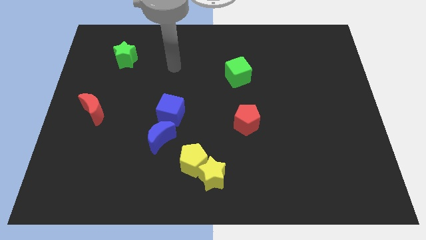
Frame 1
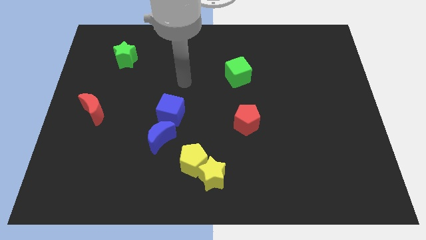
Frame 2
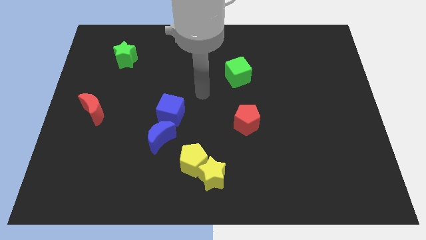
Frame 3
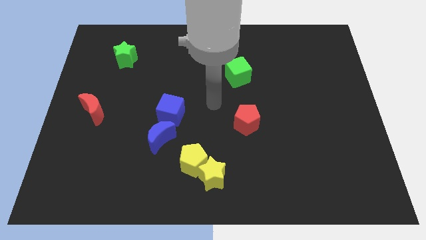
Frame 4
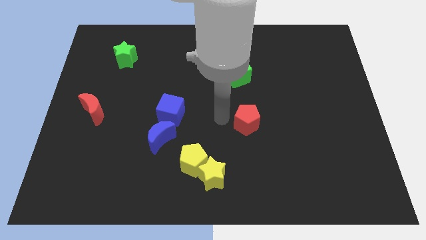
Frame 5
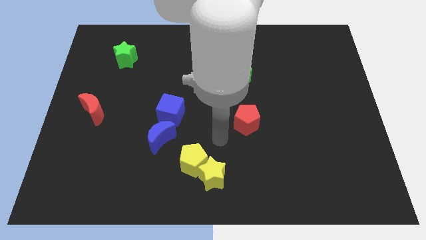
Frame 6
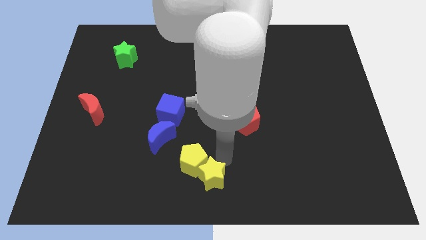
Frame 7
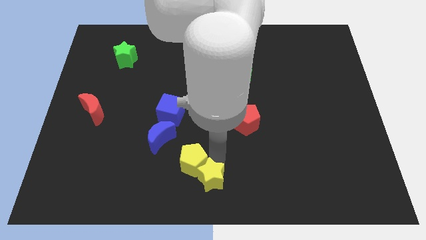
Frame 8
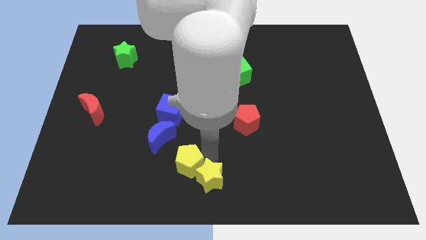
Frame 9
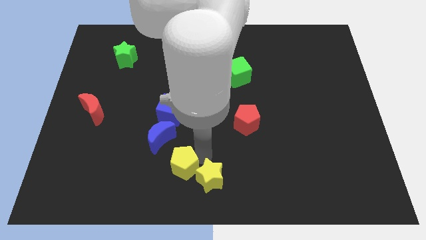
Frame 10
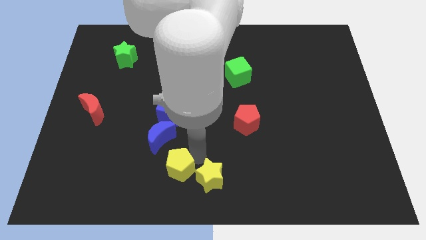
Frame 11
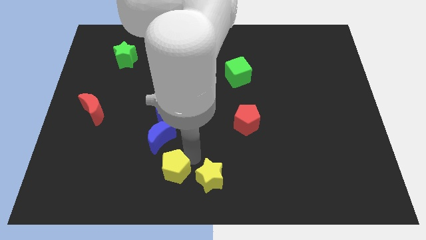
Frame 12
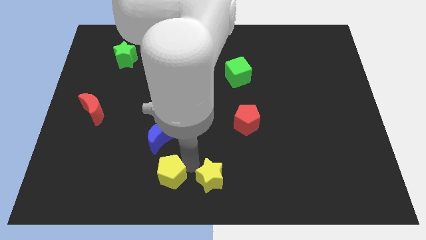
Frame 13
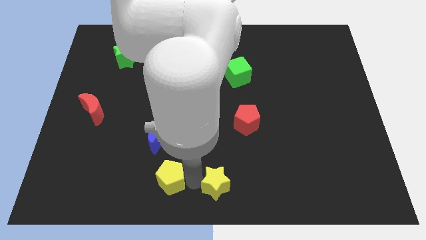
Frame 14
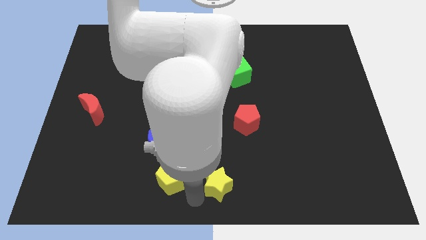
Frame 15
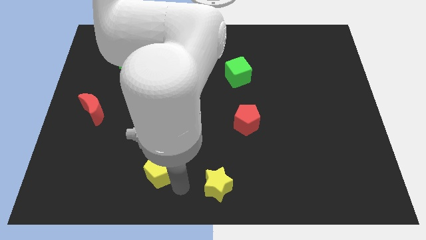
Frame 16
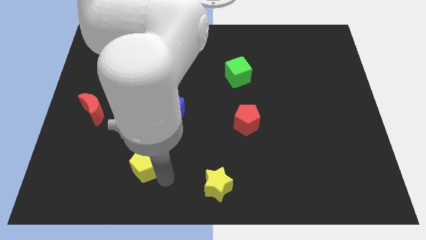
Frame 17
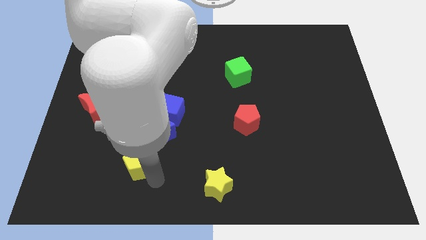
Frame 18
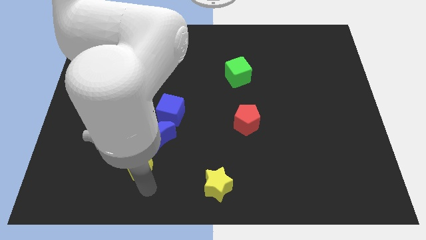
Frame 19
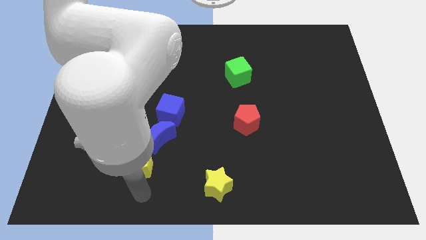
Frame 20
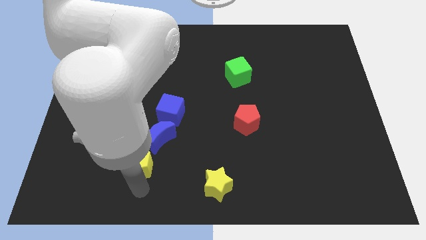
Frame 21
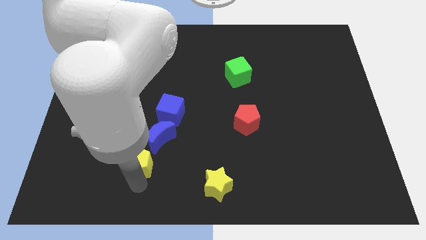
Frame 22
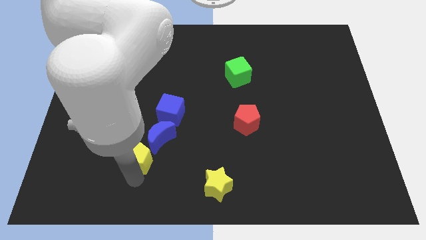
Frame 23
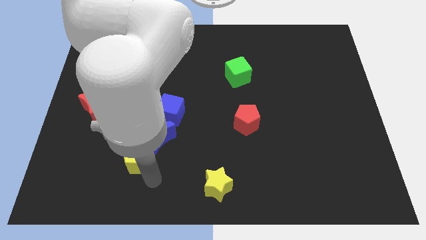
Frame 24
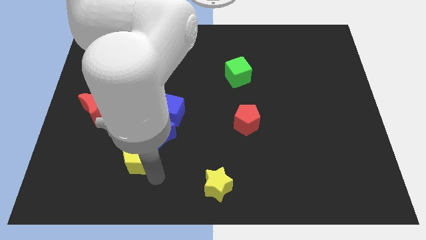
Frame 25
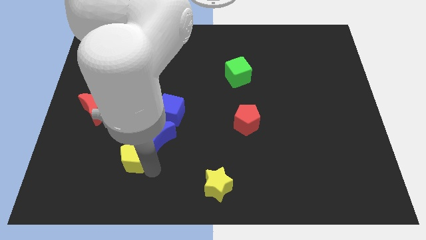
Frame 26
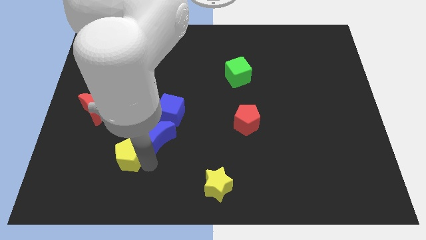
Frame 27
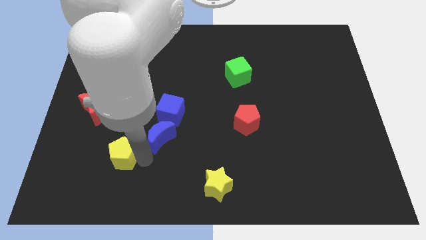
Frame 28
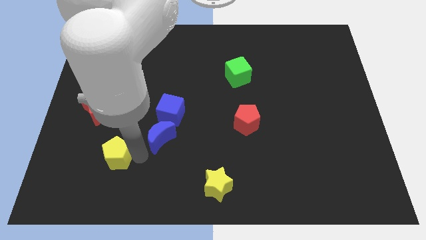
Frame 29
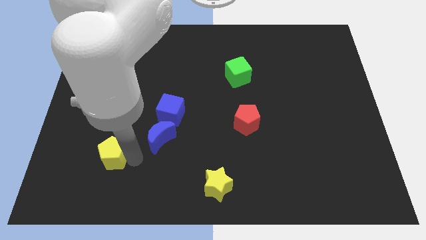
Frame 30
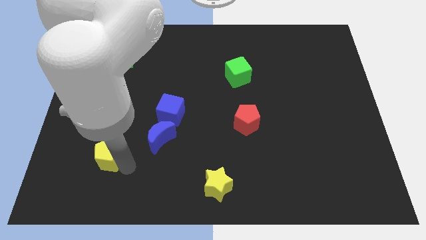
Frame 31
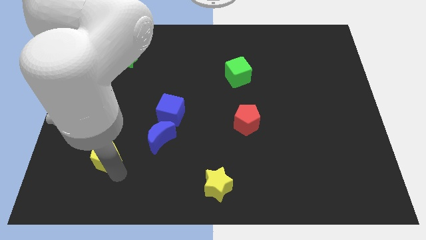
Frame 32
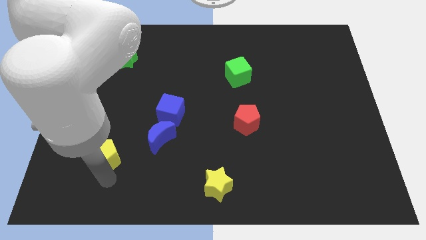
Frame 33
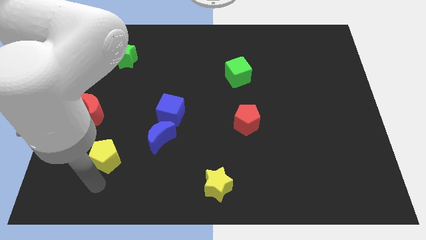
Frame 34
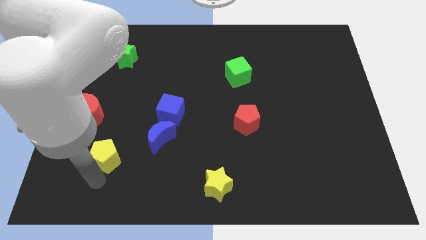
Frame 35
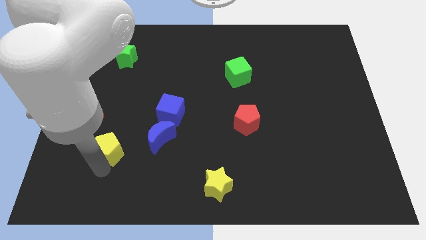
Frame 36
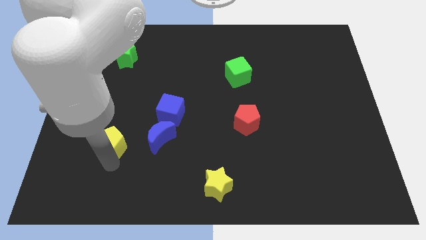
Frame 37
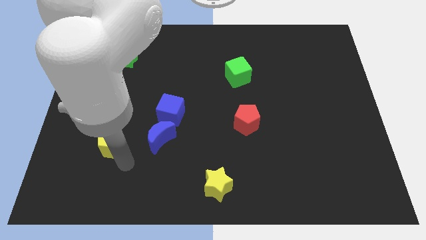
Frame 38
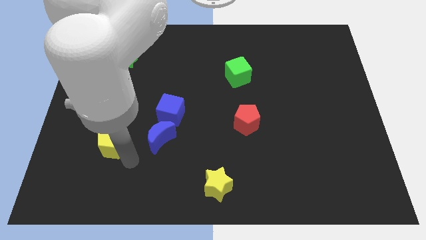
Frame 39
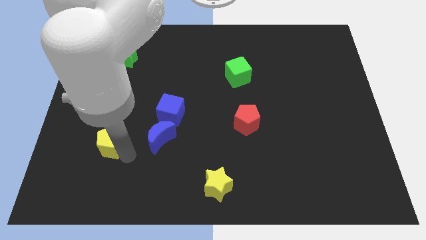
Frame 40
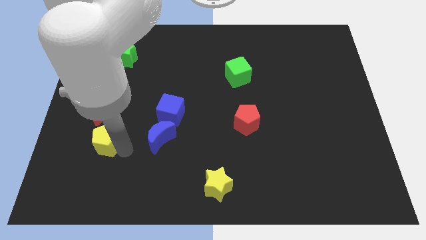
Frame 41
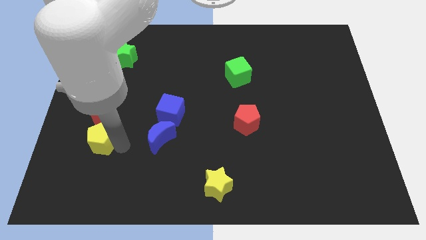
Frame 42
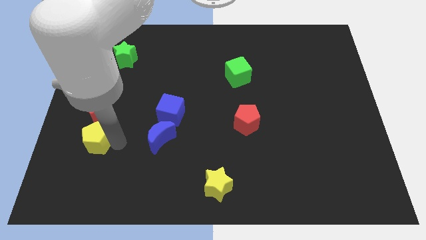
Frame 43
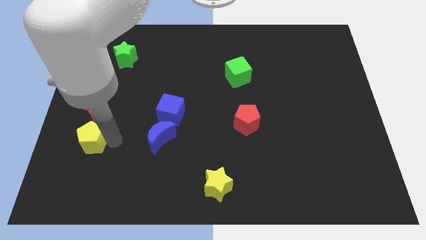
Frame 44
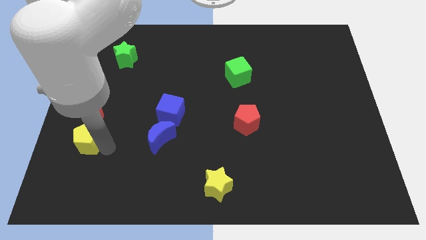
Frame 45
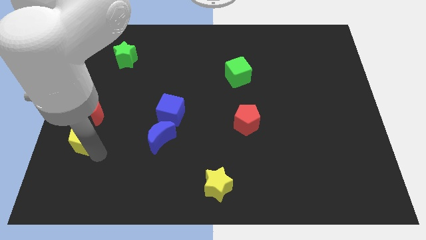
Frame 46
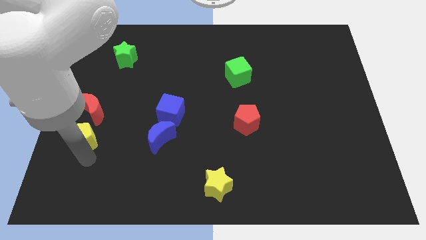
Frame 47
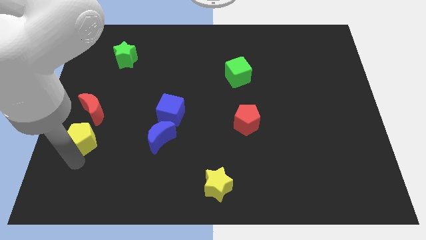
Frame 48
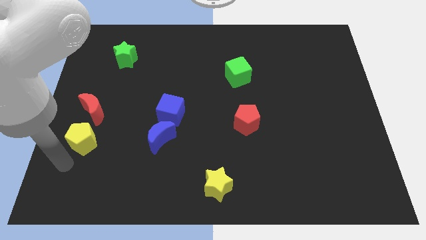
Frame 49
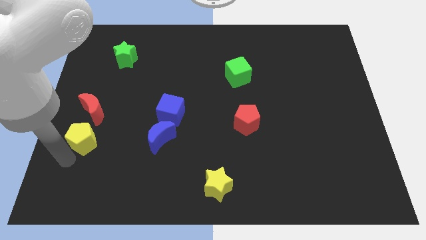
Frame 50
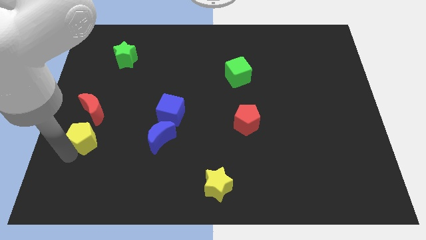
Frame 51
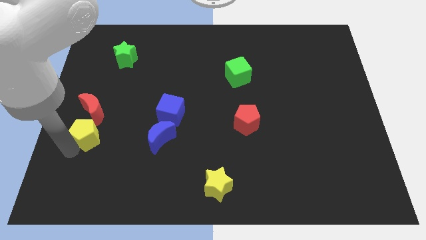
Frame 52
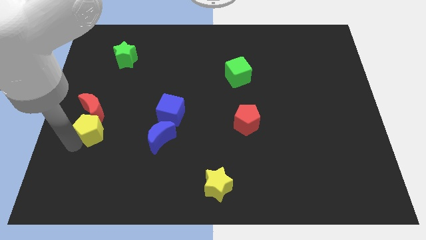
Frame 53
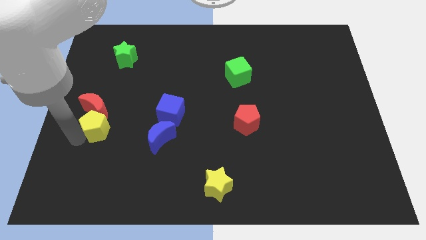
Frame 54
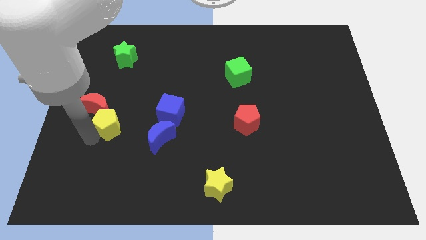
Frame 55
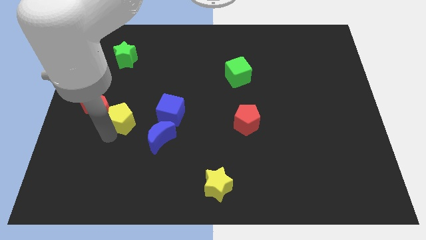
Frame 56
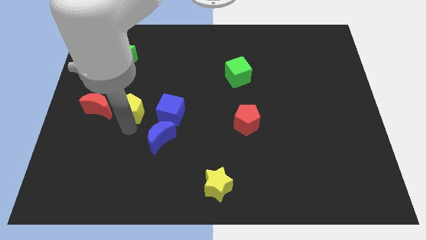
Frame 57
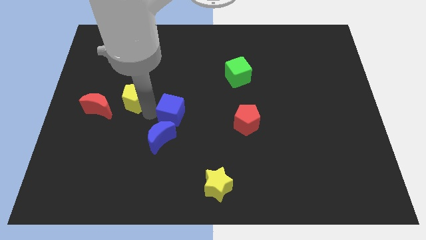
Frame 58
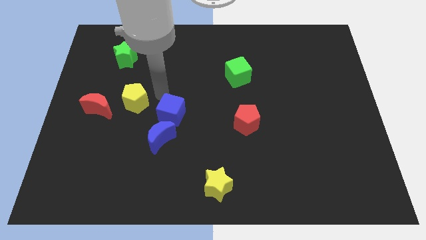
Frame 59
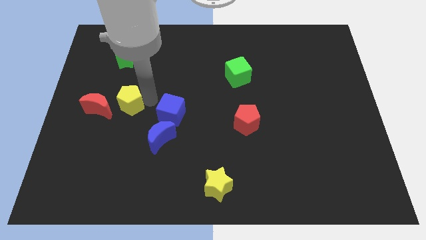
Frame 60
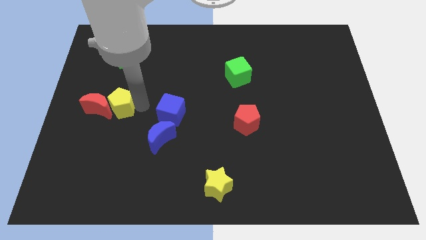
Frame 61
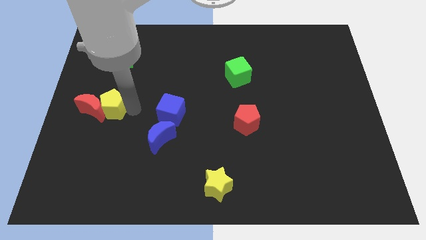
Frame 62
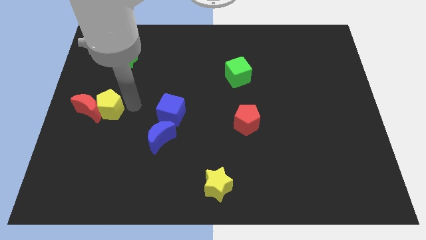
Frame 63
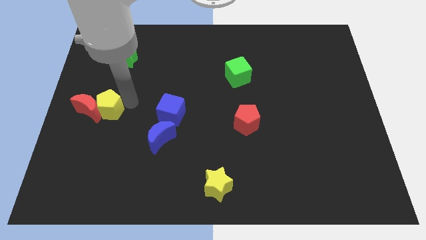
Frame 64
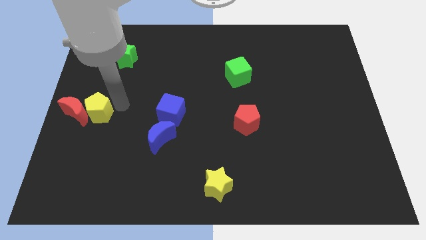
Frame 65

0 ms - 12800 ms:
push the yellow pentagon to the left side
